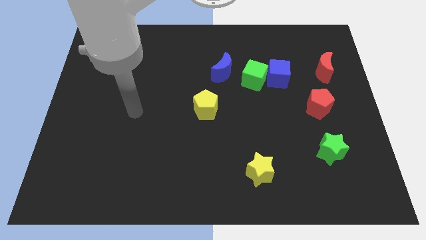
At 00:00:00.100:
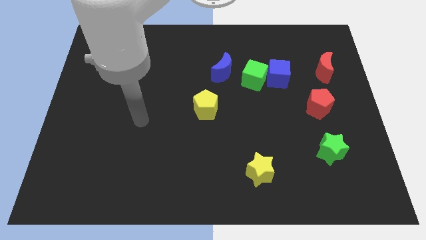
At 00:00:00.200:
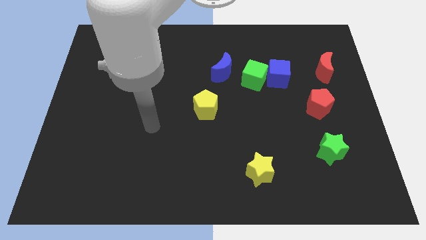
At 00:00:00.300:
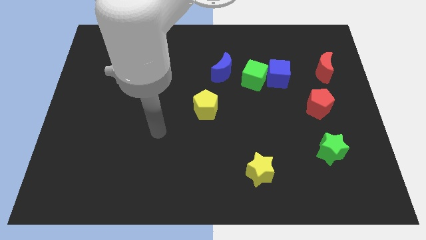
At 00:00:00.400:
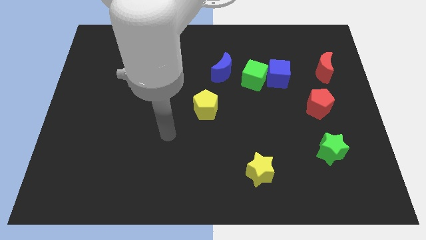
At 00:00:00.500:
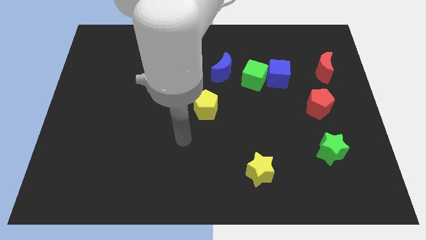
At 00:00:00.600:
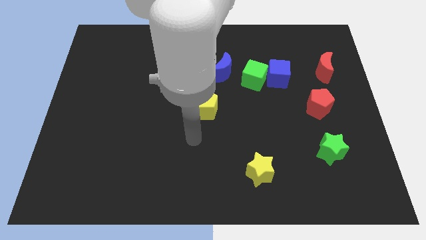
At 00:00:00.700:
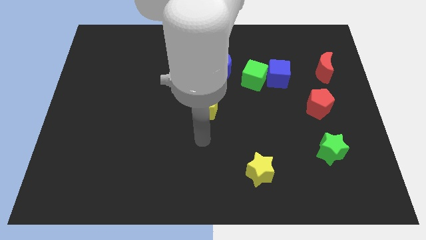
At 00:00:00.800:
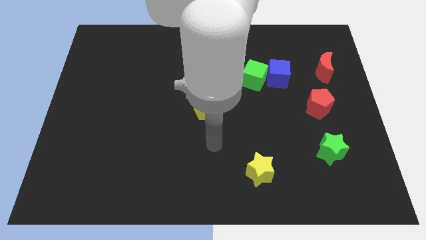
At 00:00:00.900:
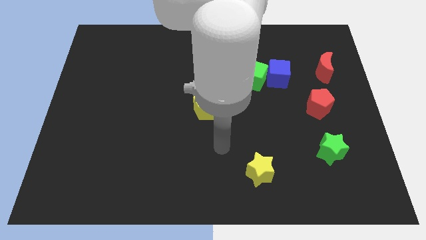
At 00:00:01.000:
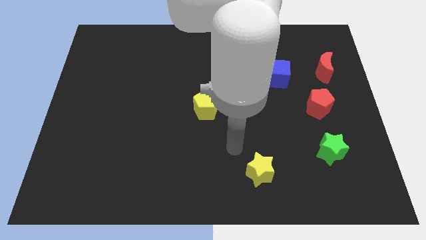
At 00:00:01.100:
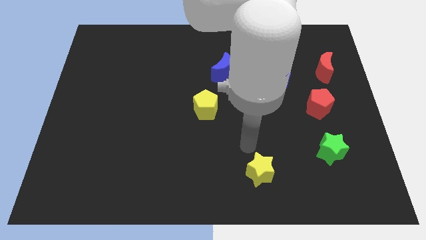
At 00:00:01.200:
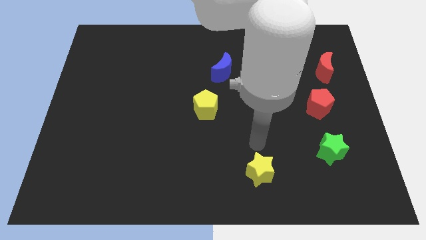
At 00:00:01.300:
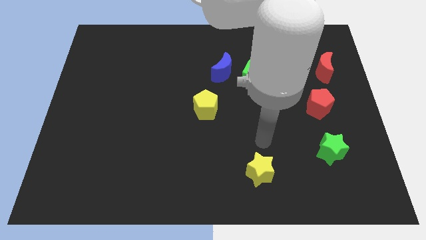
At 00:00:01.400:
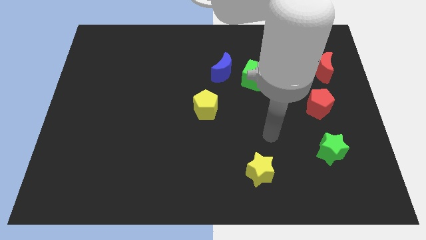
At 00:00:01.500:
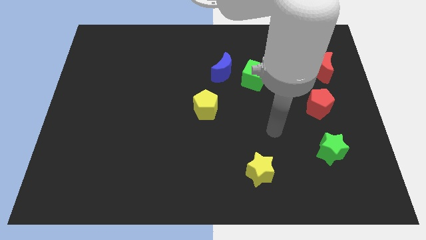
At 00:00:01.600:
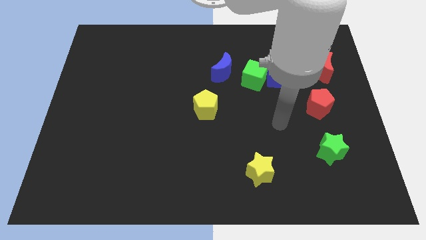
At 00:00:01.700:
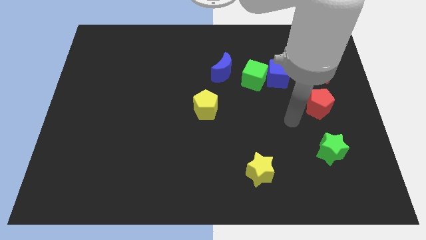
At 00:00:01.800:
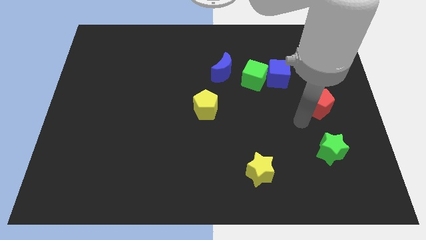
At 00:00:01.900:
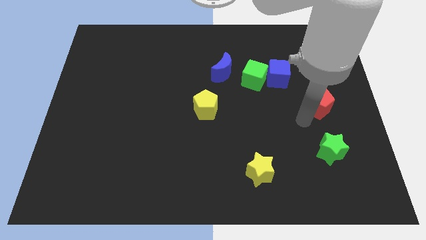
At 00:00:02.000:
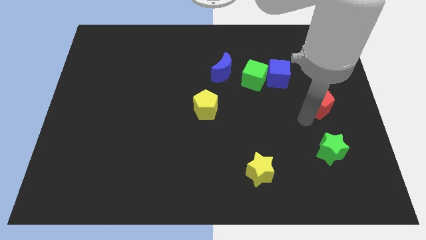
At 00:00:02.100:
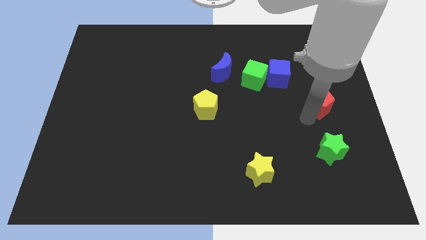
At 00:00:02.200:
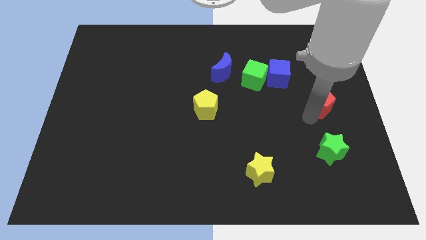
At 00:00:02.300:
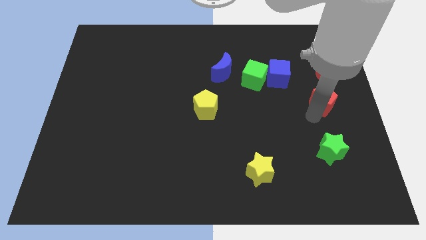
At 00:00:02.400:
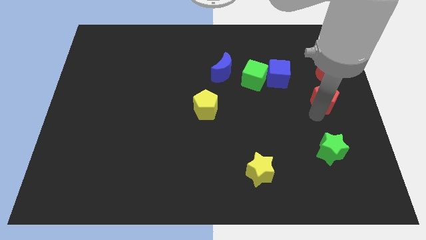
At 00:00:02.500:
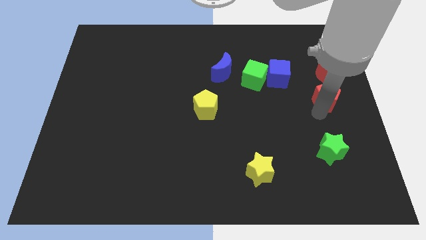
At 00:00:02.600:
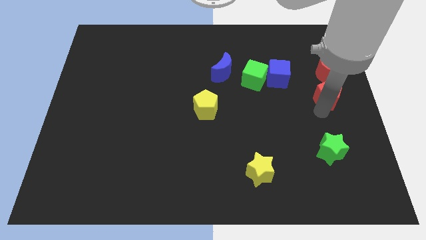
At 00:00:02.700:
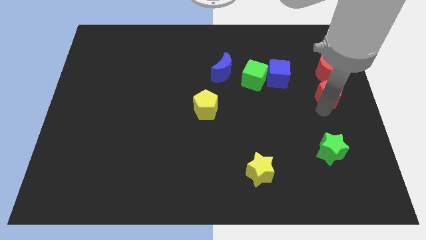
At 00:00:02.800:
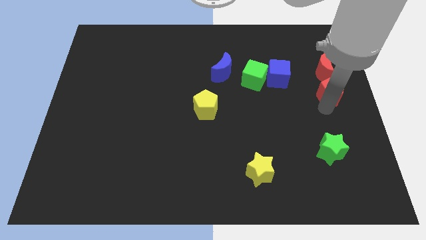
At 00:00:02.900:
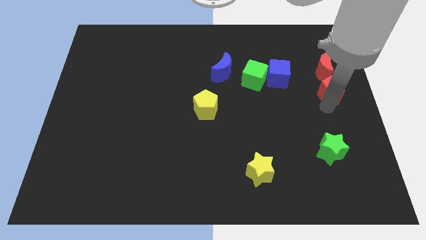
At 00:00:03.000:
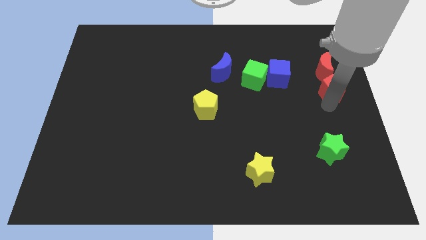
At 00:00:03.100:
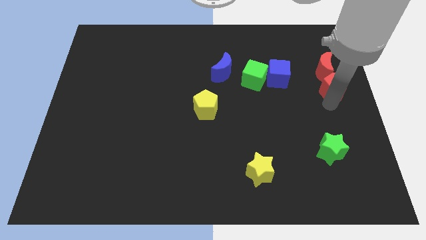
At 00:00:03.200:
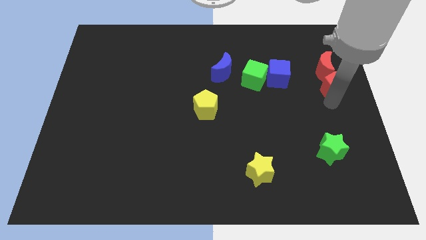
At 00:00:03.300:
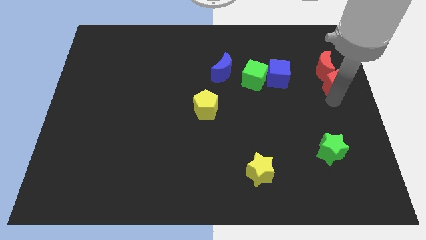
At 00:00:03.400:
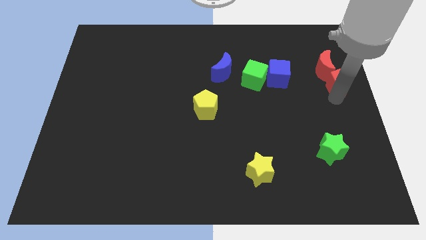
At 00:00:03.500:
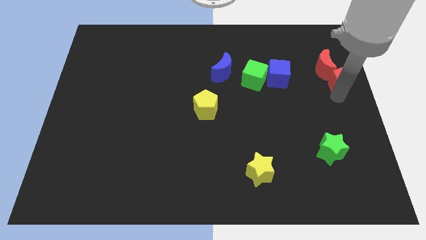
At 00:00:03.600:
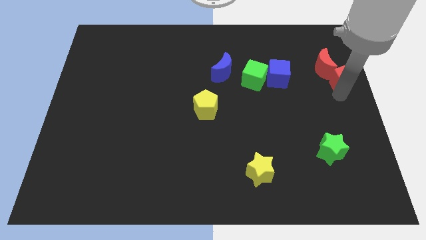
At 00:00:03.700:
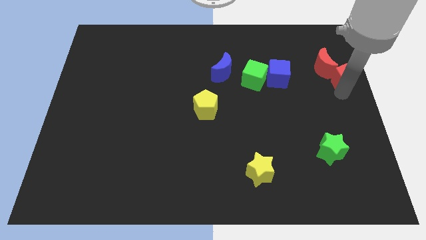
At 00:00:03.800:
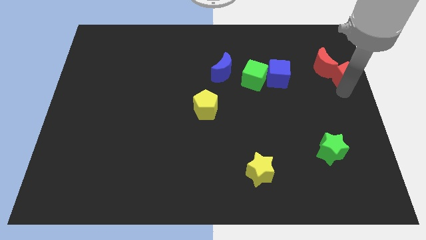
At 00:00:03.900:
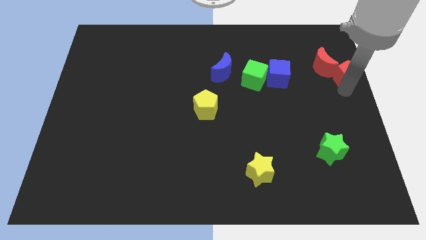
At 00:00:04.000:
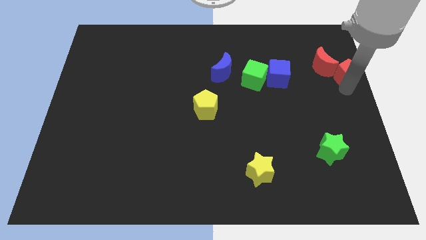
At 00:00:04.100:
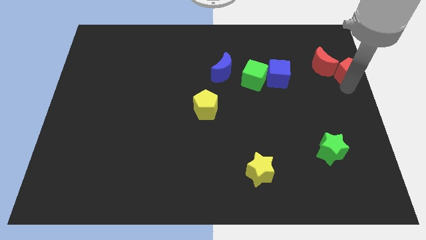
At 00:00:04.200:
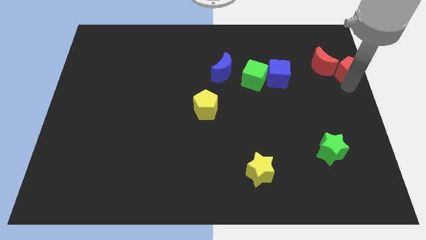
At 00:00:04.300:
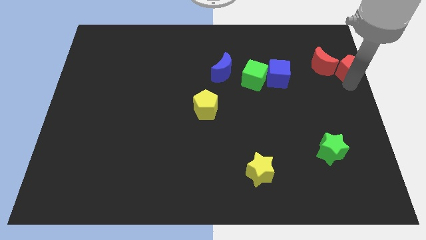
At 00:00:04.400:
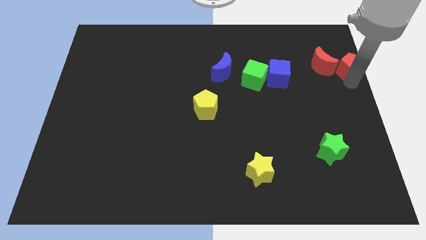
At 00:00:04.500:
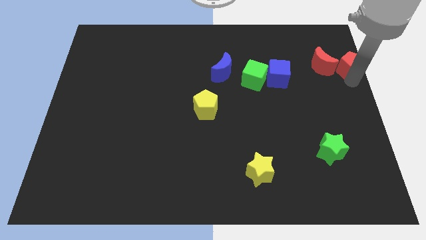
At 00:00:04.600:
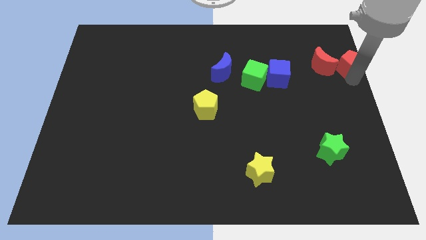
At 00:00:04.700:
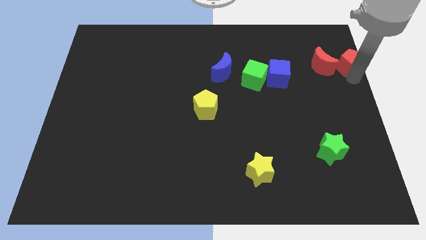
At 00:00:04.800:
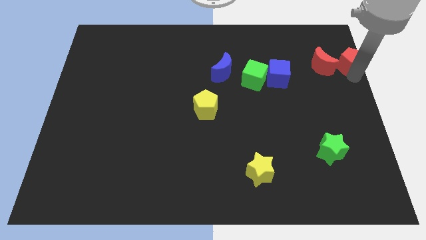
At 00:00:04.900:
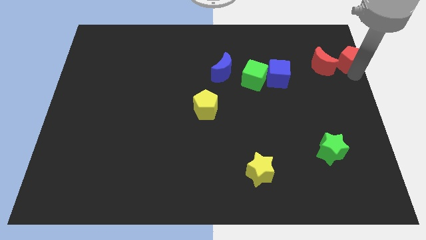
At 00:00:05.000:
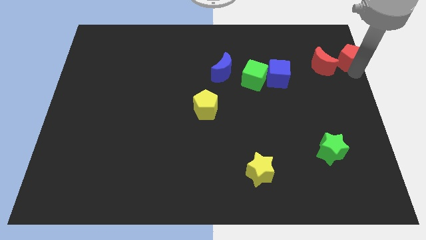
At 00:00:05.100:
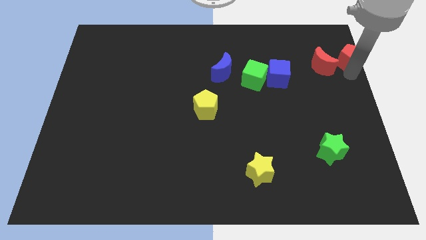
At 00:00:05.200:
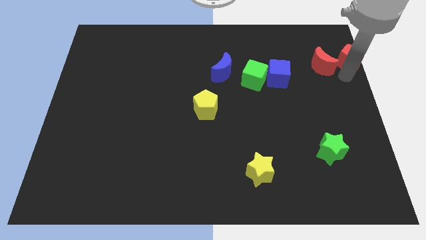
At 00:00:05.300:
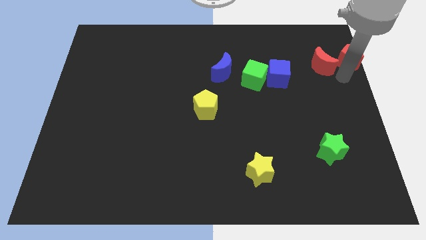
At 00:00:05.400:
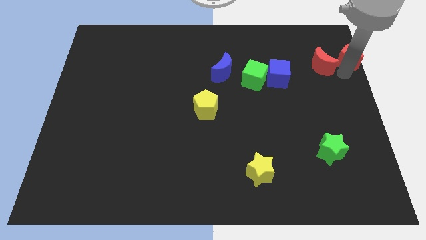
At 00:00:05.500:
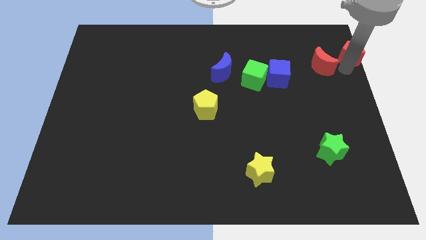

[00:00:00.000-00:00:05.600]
move the red pentagon to the top right

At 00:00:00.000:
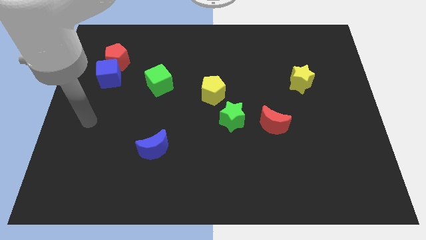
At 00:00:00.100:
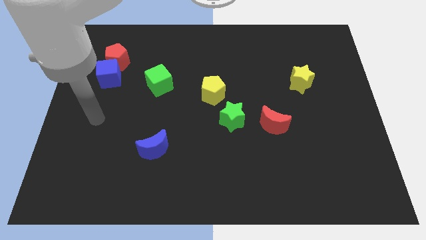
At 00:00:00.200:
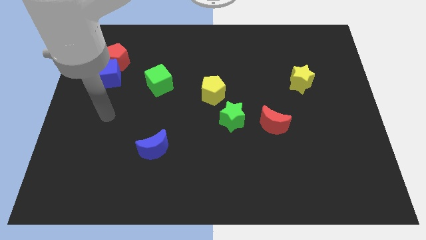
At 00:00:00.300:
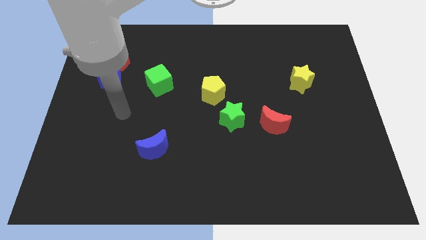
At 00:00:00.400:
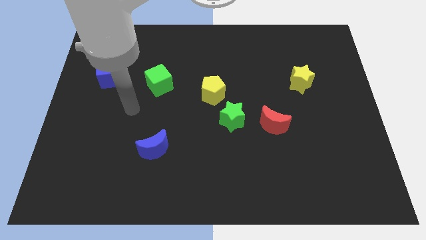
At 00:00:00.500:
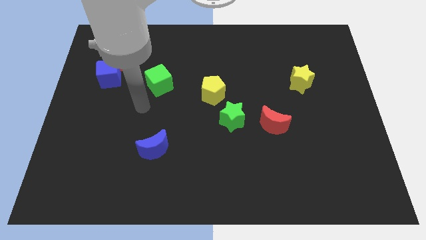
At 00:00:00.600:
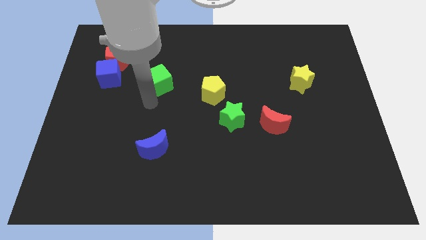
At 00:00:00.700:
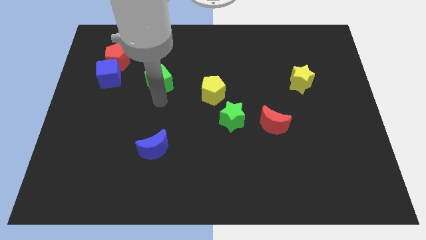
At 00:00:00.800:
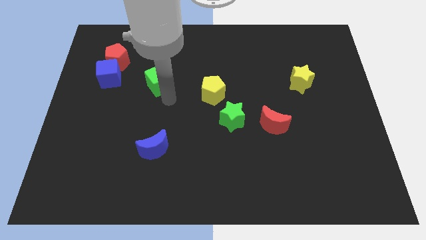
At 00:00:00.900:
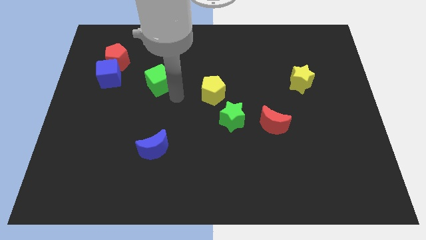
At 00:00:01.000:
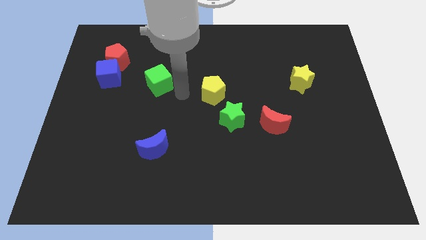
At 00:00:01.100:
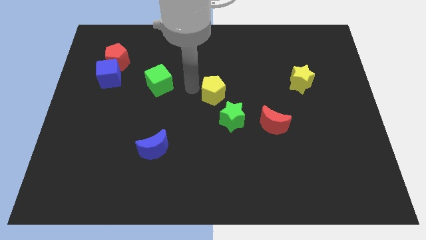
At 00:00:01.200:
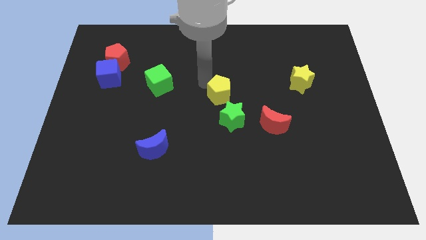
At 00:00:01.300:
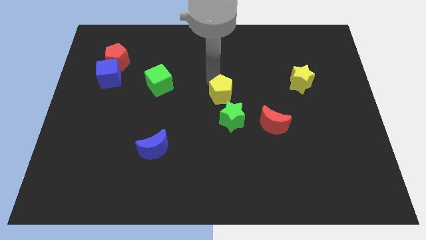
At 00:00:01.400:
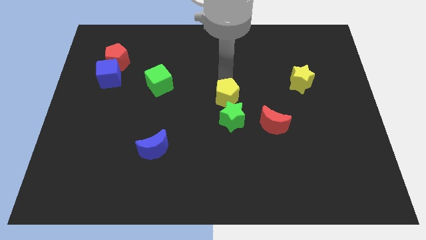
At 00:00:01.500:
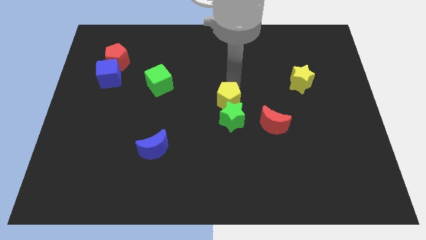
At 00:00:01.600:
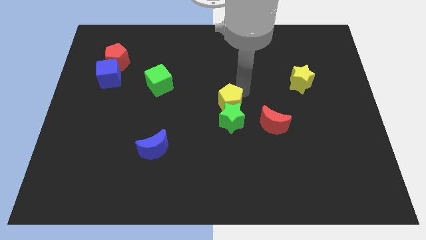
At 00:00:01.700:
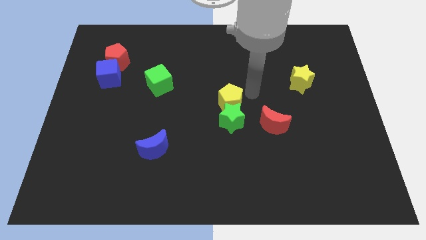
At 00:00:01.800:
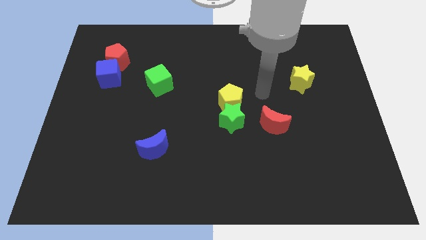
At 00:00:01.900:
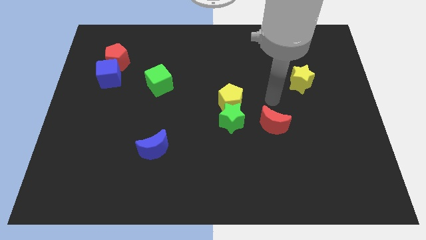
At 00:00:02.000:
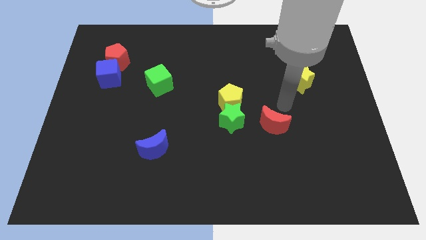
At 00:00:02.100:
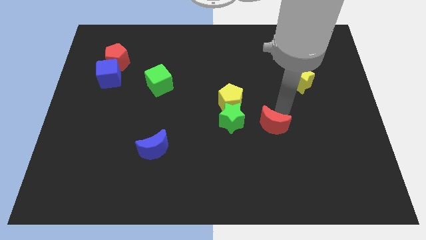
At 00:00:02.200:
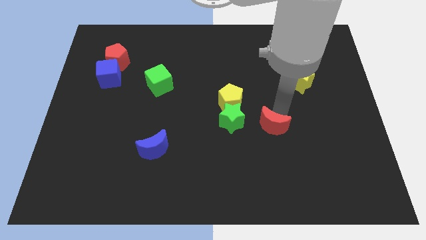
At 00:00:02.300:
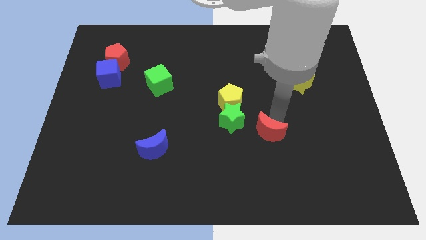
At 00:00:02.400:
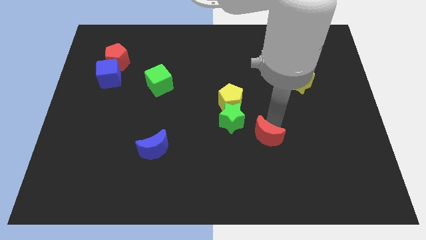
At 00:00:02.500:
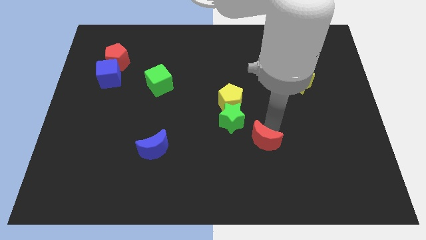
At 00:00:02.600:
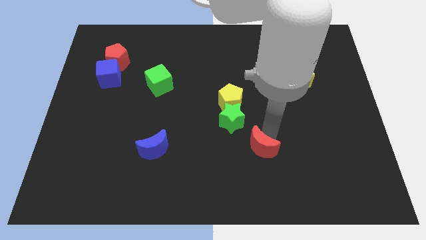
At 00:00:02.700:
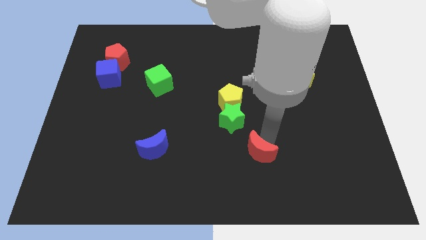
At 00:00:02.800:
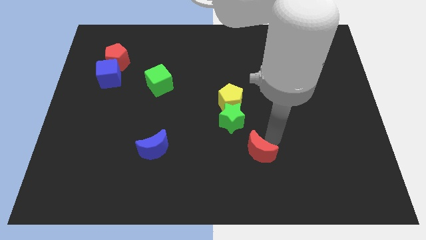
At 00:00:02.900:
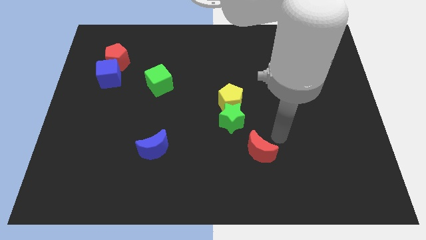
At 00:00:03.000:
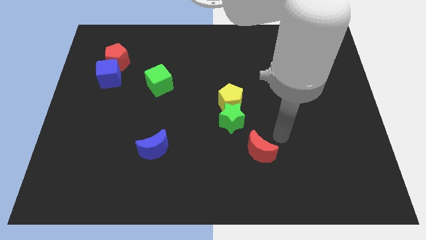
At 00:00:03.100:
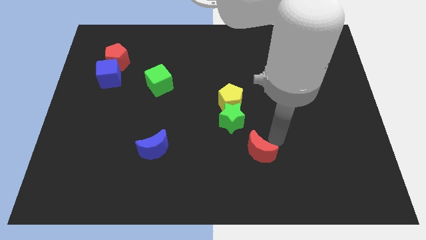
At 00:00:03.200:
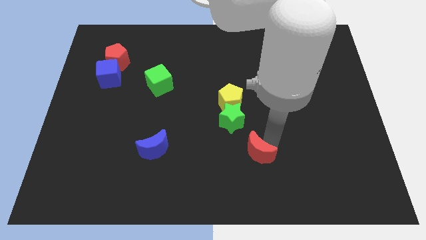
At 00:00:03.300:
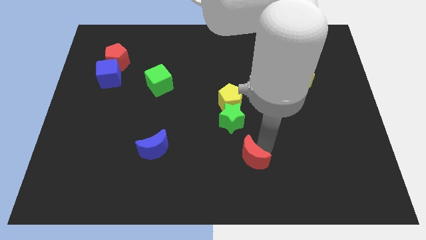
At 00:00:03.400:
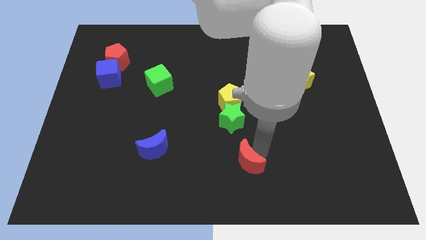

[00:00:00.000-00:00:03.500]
move the red moon to the bottom side
